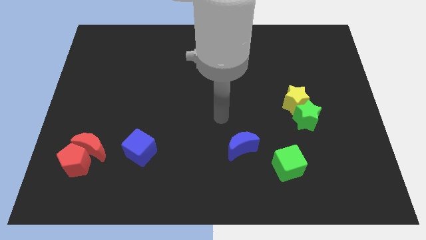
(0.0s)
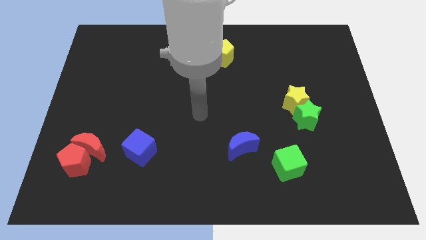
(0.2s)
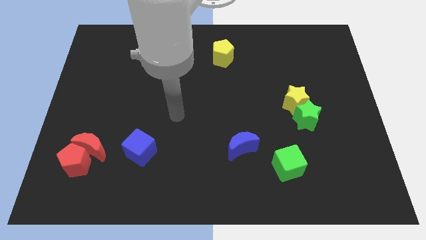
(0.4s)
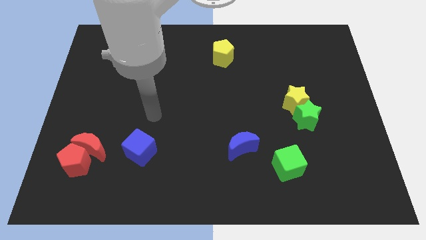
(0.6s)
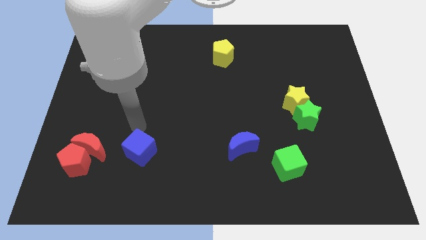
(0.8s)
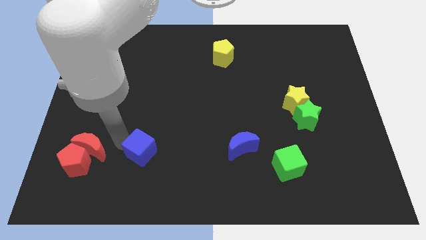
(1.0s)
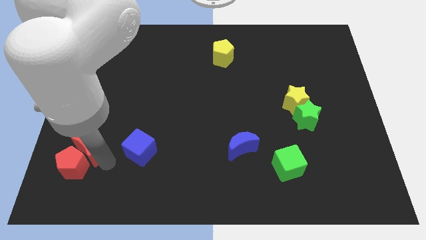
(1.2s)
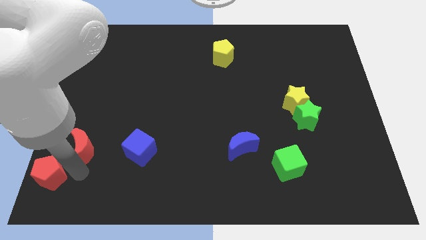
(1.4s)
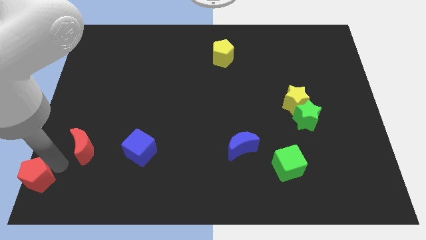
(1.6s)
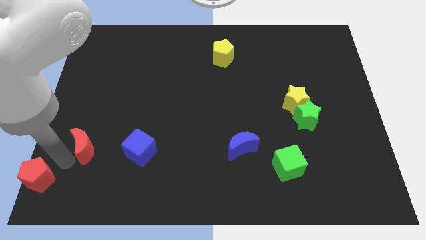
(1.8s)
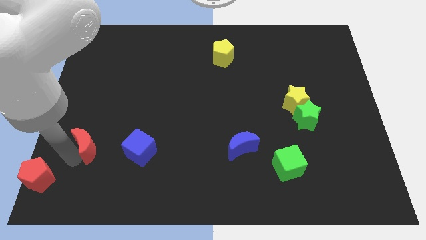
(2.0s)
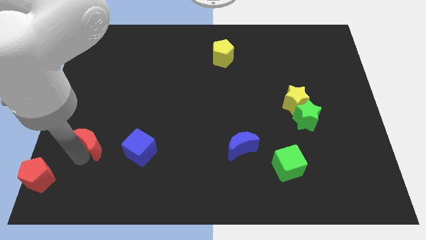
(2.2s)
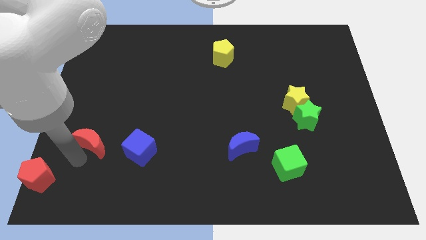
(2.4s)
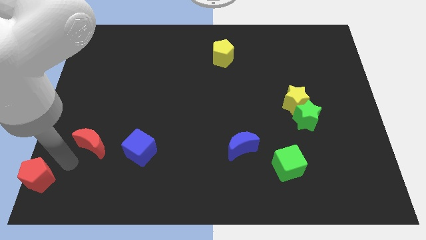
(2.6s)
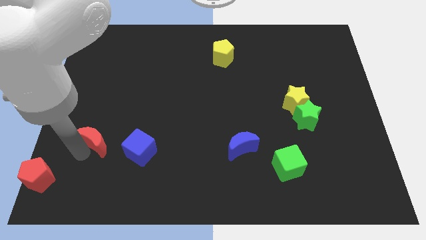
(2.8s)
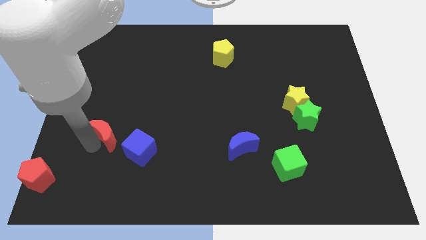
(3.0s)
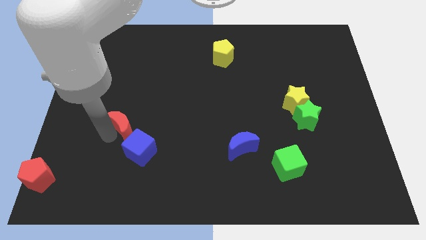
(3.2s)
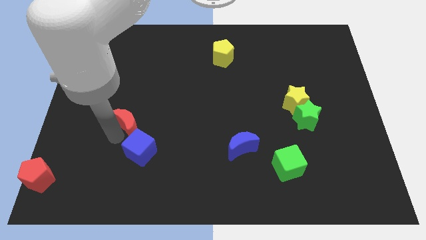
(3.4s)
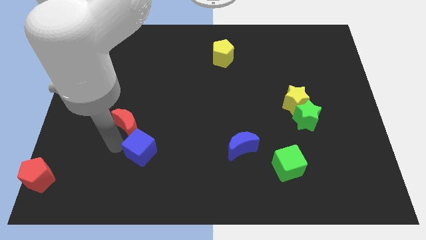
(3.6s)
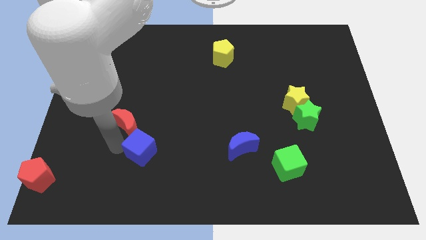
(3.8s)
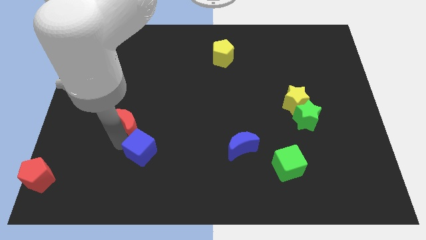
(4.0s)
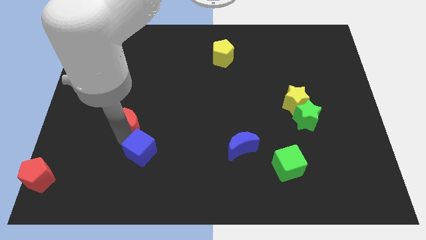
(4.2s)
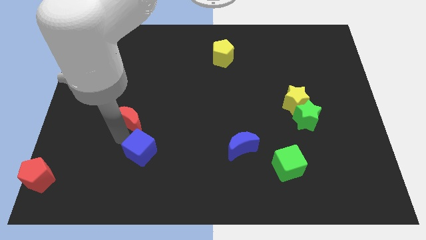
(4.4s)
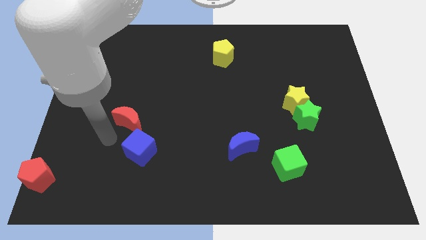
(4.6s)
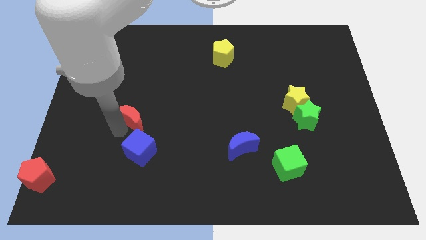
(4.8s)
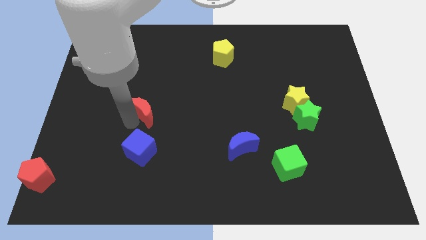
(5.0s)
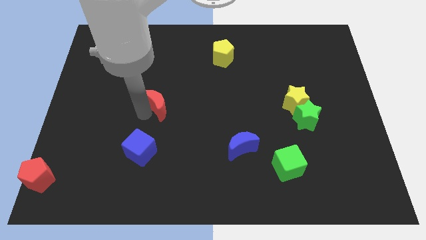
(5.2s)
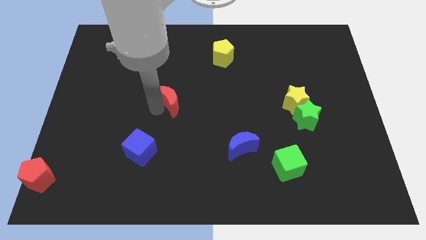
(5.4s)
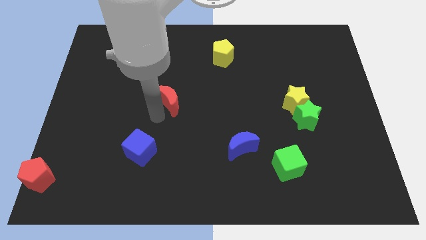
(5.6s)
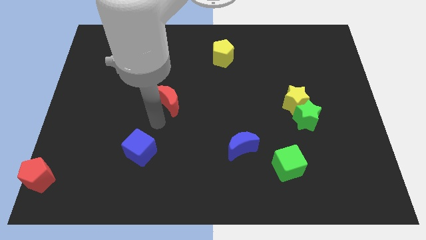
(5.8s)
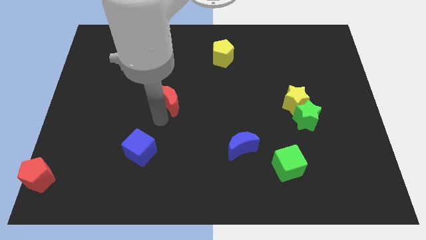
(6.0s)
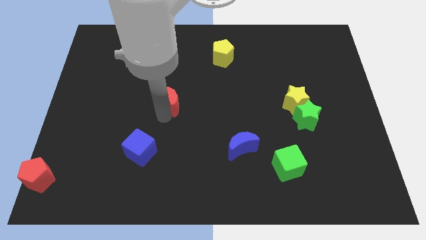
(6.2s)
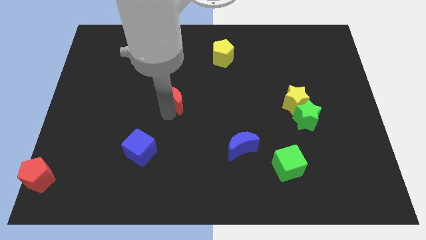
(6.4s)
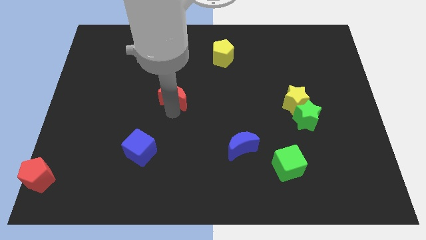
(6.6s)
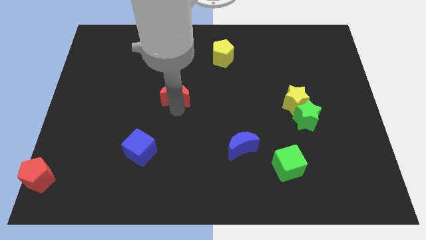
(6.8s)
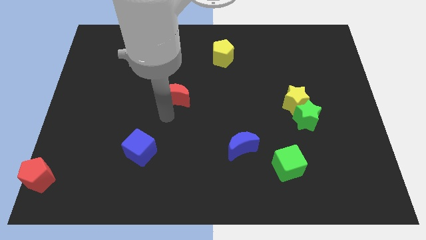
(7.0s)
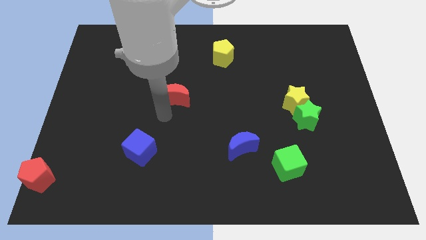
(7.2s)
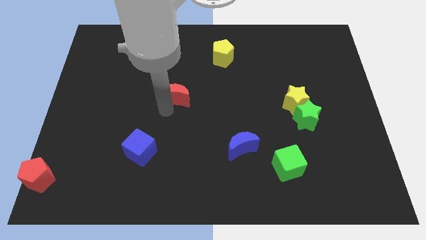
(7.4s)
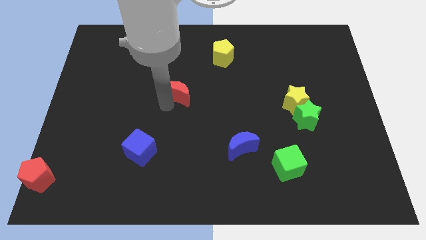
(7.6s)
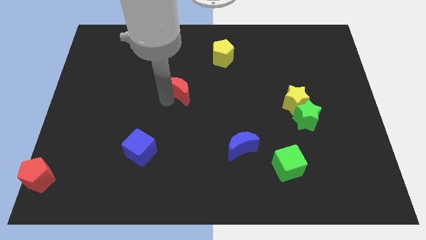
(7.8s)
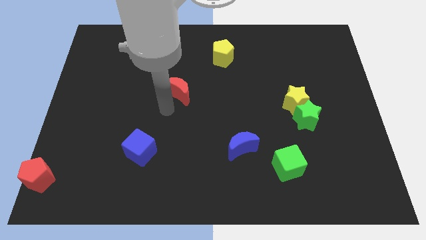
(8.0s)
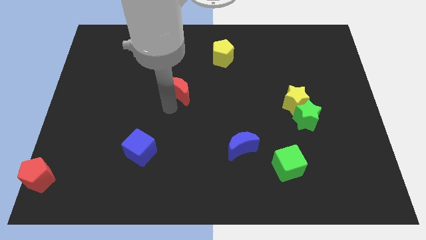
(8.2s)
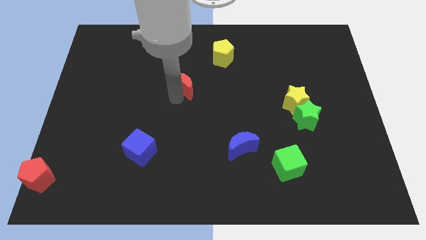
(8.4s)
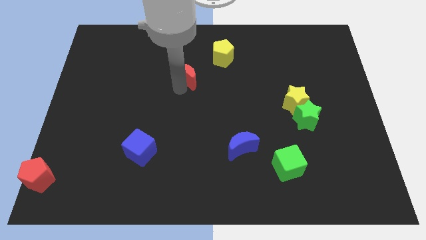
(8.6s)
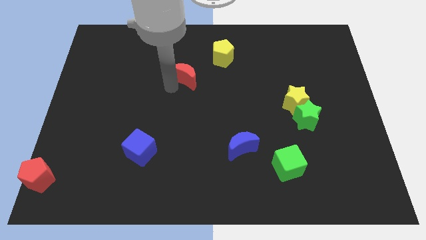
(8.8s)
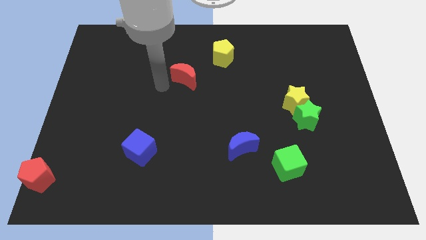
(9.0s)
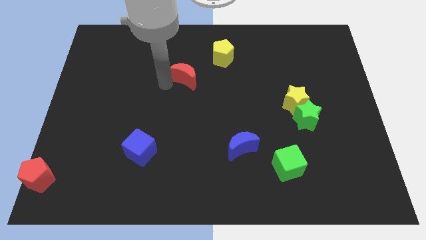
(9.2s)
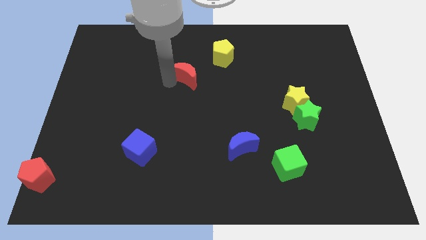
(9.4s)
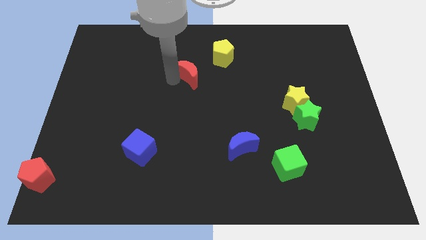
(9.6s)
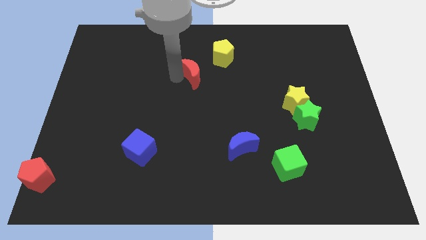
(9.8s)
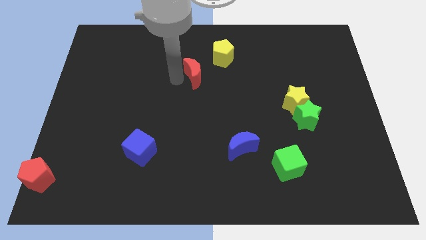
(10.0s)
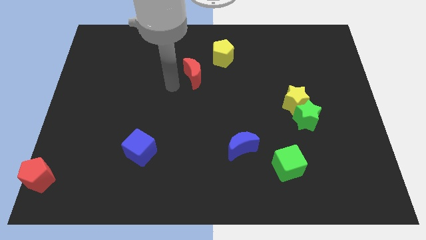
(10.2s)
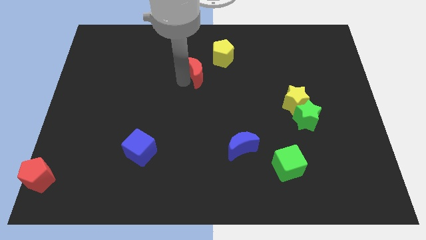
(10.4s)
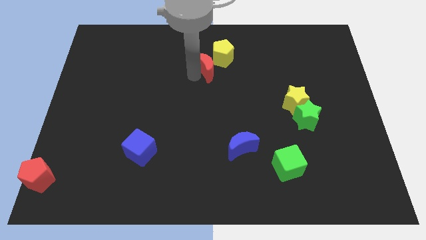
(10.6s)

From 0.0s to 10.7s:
move the red moon towards the yellow pentagon

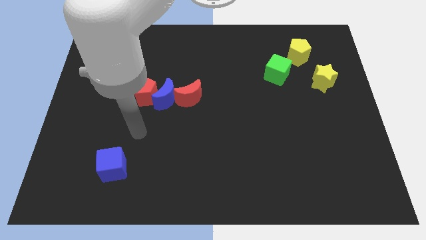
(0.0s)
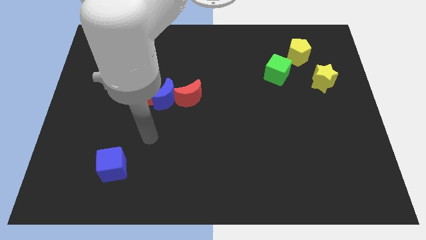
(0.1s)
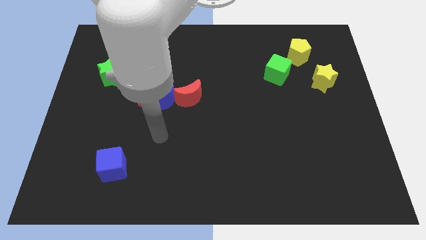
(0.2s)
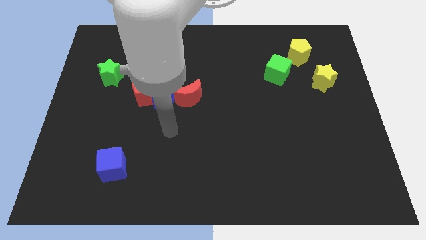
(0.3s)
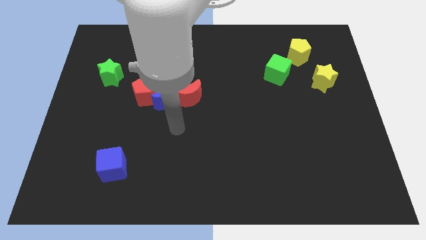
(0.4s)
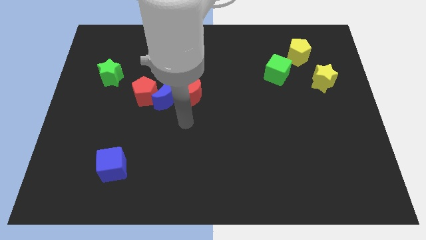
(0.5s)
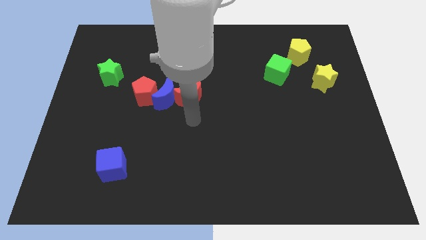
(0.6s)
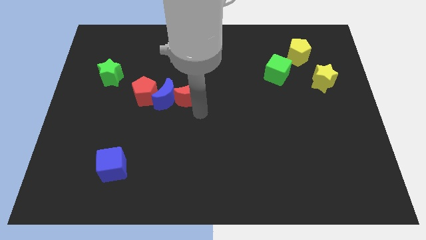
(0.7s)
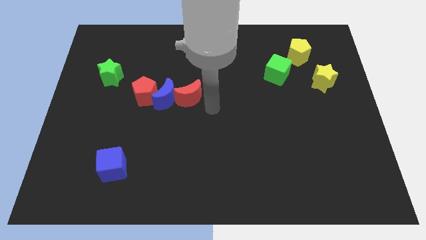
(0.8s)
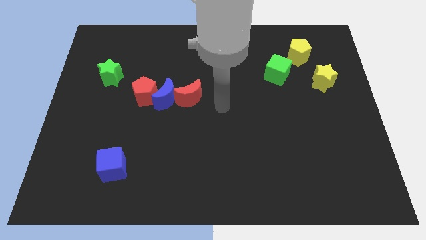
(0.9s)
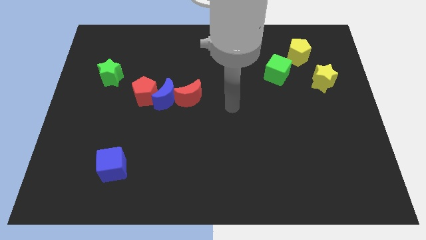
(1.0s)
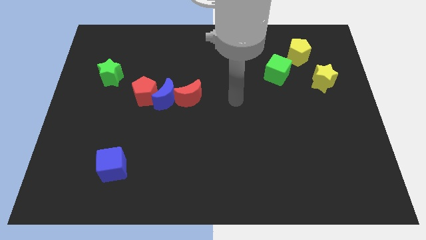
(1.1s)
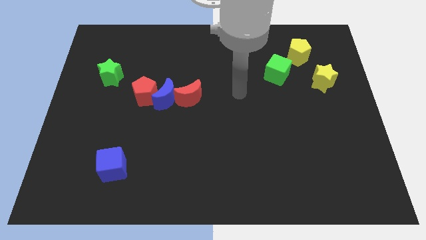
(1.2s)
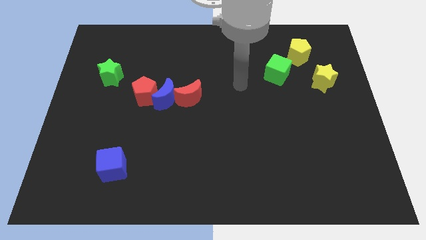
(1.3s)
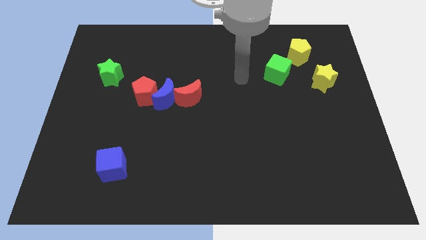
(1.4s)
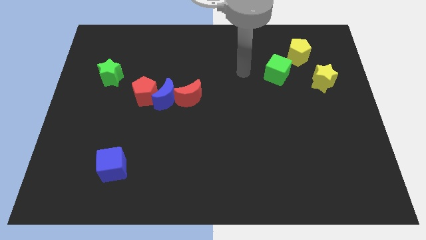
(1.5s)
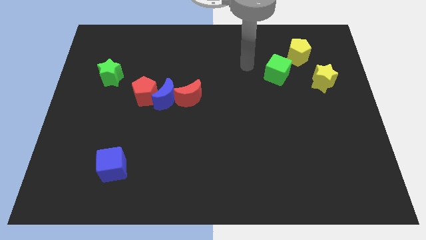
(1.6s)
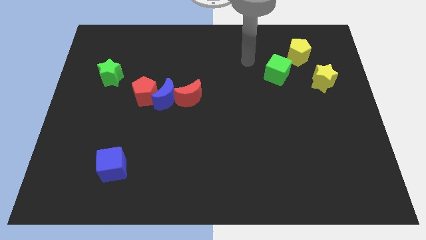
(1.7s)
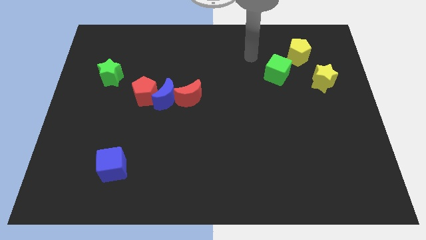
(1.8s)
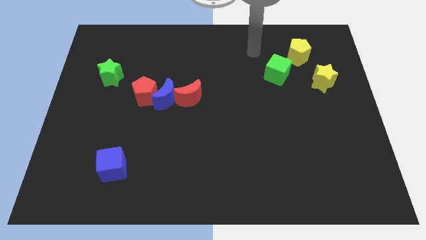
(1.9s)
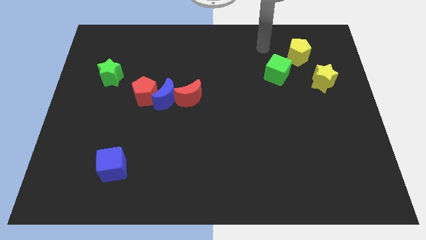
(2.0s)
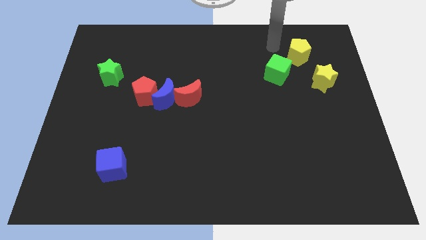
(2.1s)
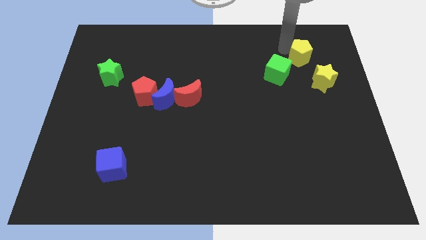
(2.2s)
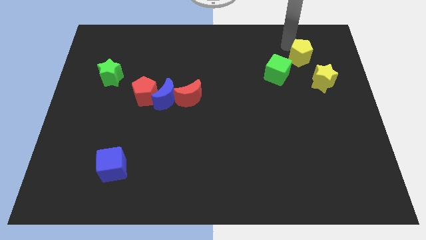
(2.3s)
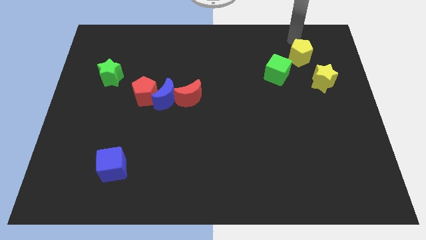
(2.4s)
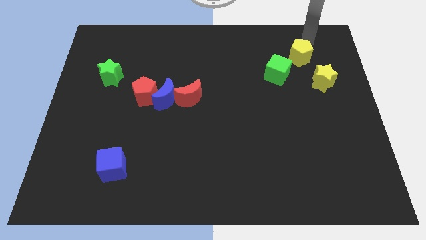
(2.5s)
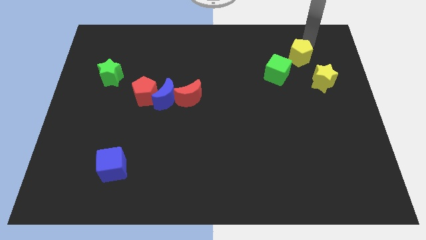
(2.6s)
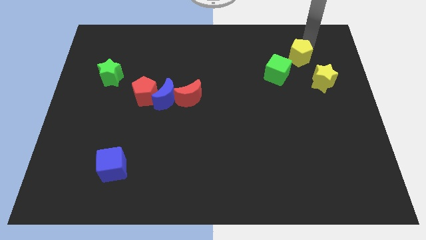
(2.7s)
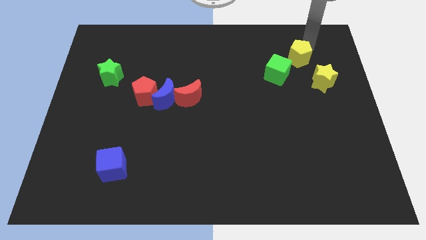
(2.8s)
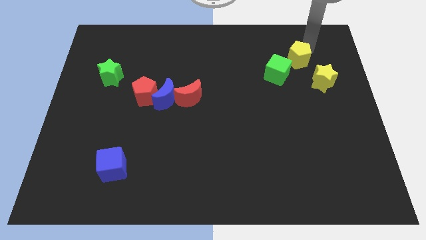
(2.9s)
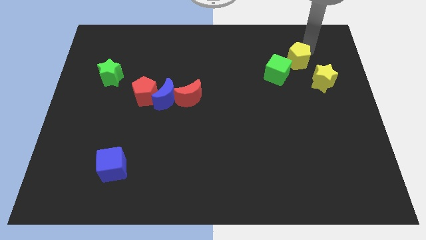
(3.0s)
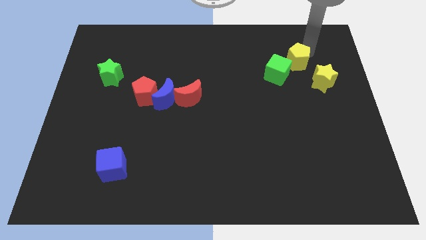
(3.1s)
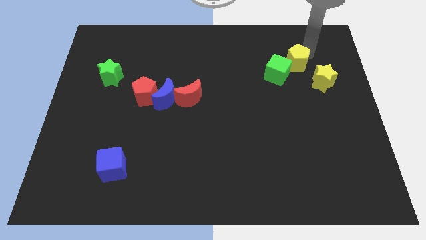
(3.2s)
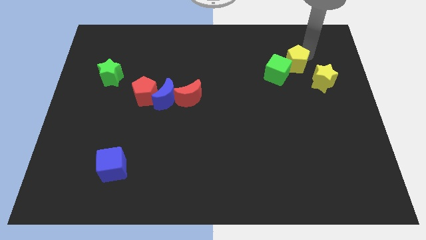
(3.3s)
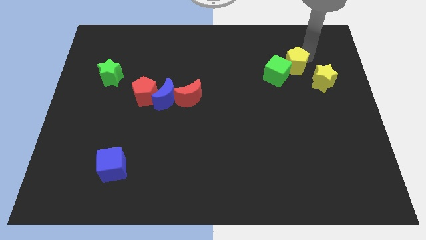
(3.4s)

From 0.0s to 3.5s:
slide the yellow pentagon towards the green cube
